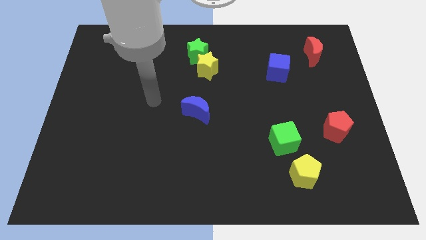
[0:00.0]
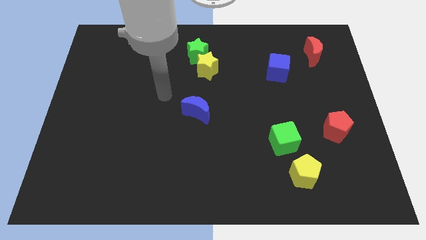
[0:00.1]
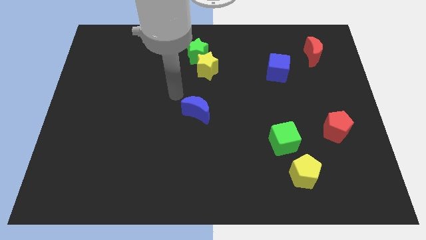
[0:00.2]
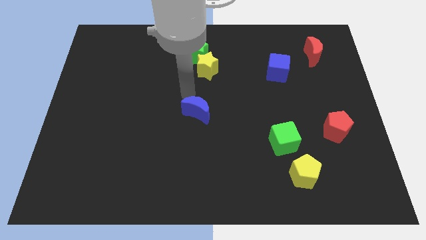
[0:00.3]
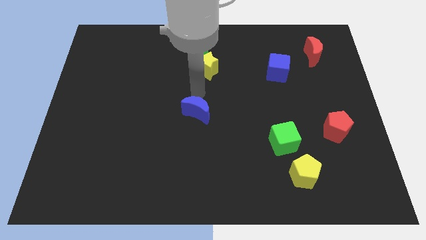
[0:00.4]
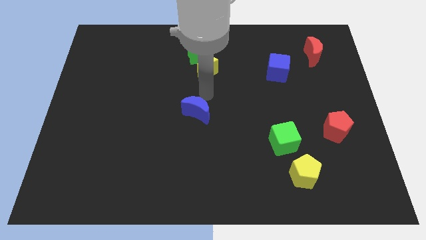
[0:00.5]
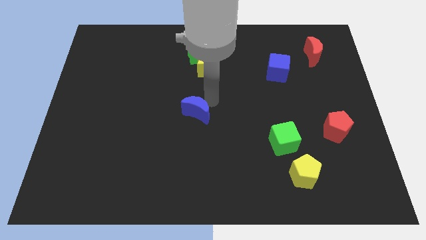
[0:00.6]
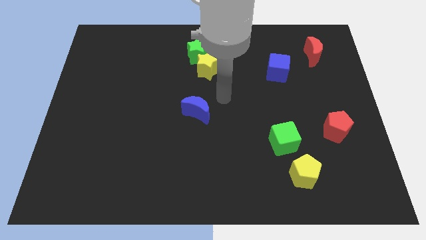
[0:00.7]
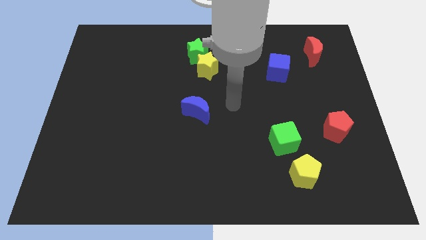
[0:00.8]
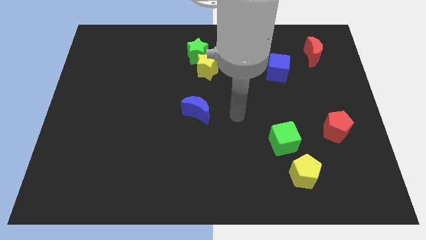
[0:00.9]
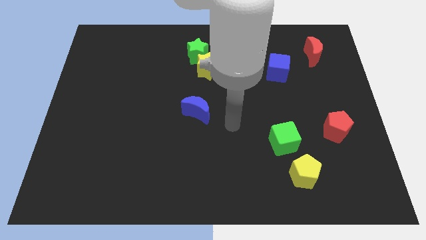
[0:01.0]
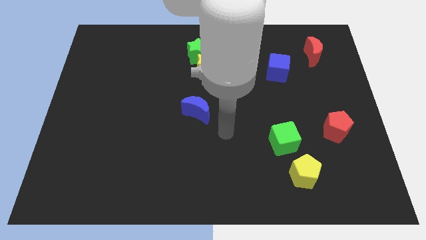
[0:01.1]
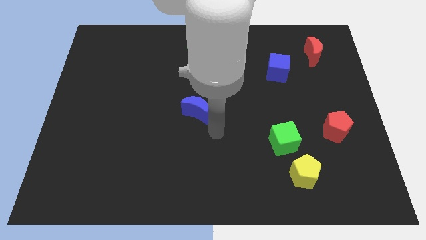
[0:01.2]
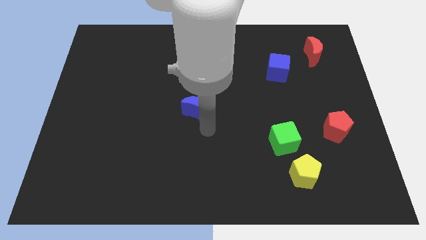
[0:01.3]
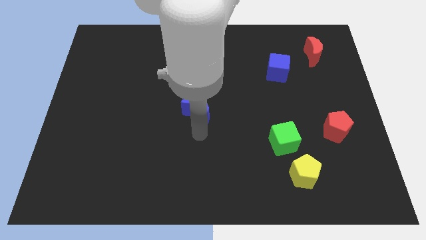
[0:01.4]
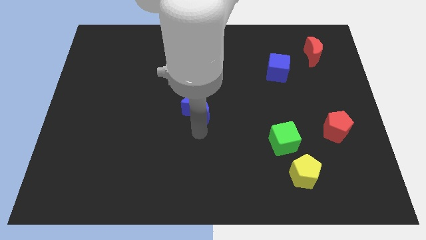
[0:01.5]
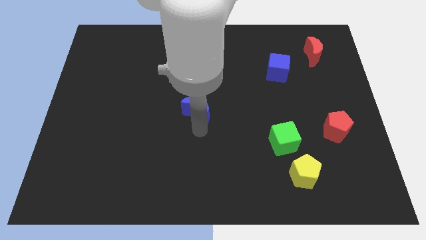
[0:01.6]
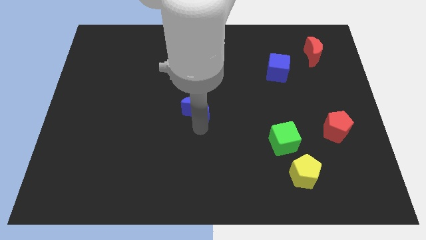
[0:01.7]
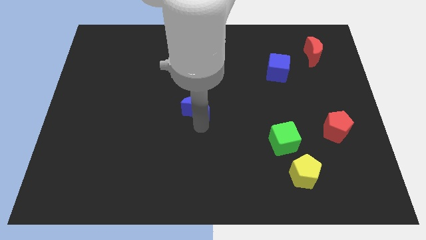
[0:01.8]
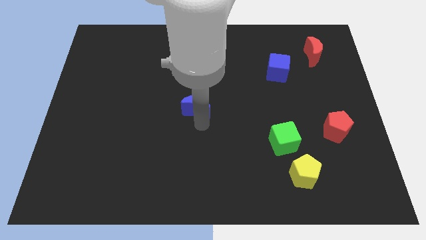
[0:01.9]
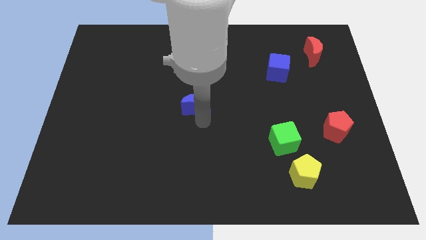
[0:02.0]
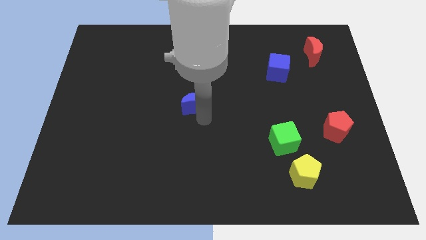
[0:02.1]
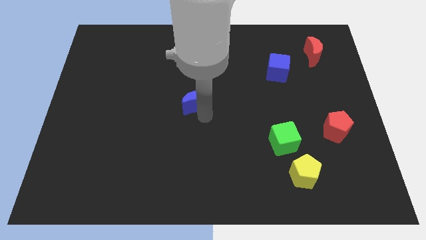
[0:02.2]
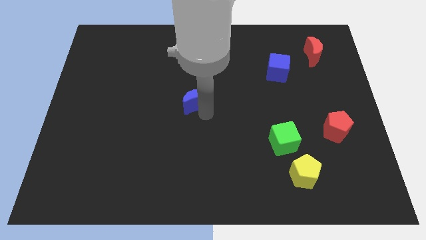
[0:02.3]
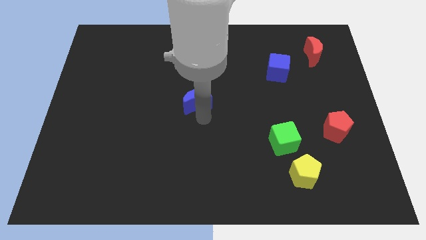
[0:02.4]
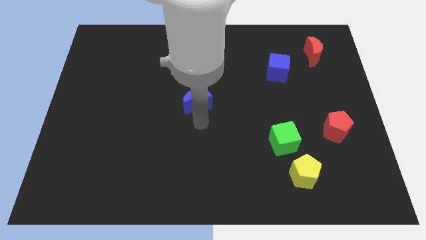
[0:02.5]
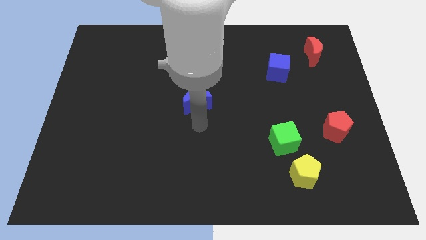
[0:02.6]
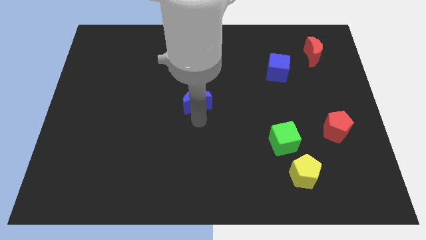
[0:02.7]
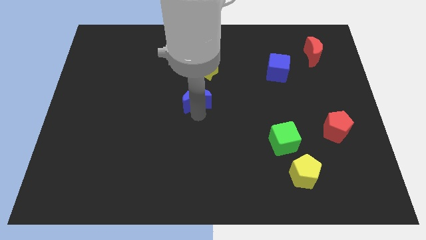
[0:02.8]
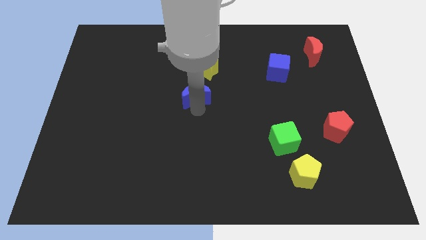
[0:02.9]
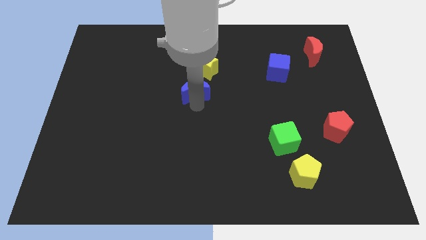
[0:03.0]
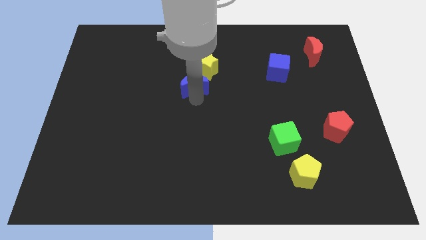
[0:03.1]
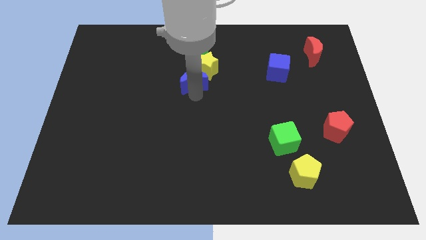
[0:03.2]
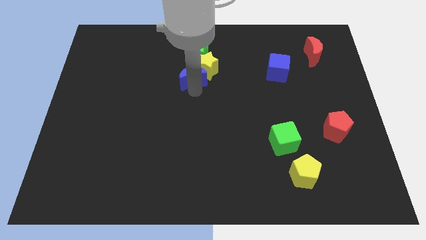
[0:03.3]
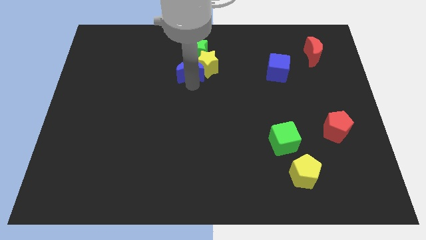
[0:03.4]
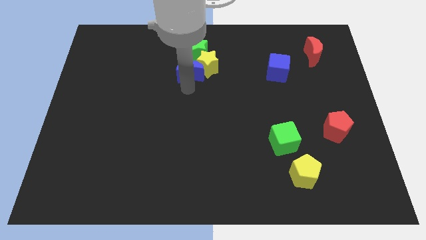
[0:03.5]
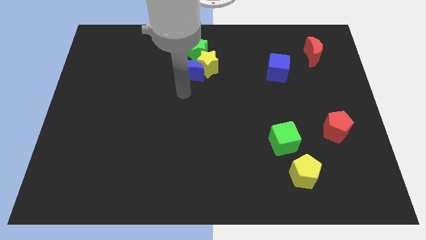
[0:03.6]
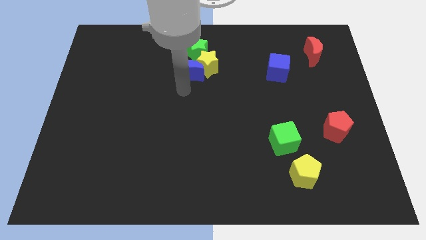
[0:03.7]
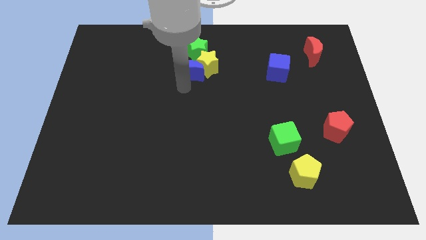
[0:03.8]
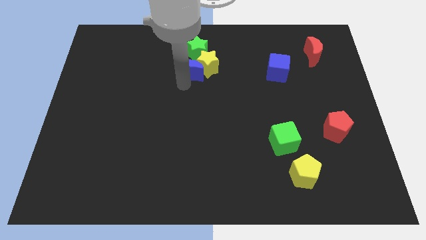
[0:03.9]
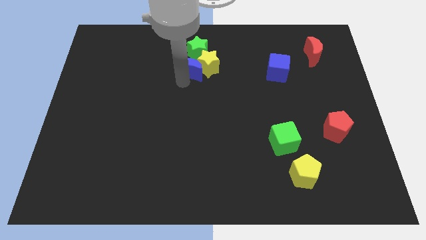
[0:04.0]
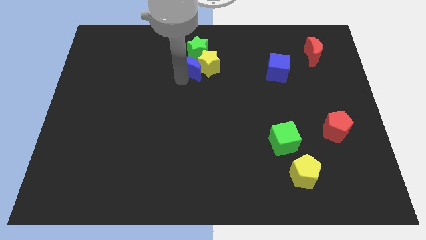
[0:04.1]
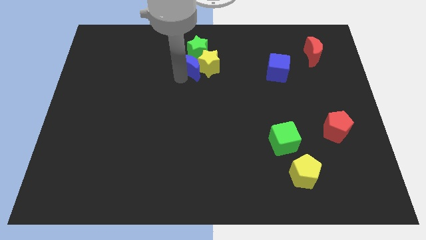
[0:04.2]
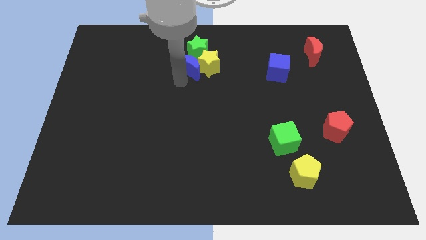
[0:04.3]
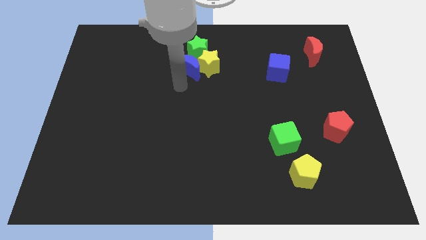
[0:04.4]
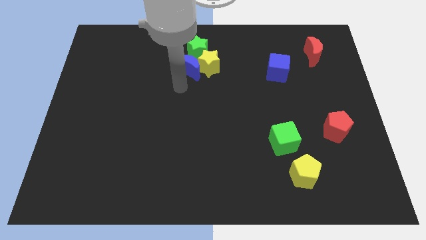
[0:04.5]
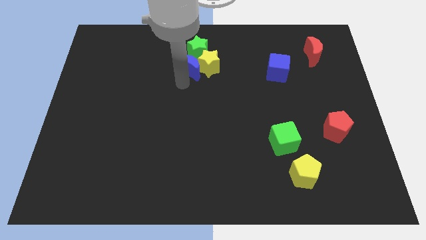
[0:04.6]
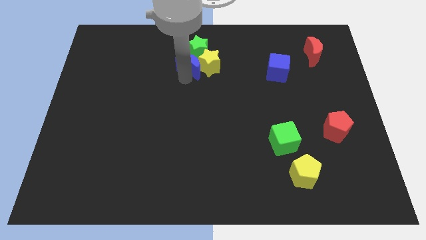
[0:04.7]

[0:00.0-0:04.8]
push the blue moon close to the green star

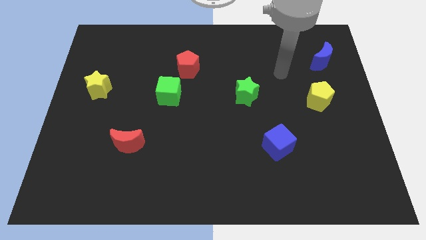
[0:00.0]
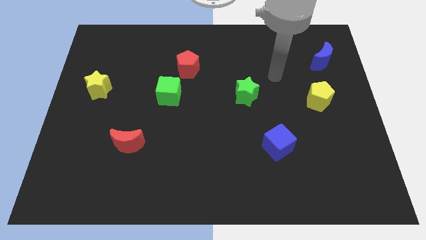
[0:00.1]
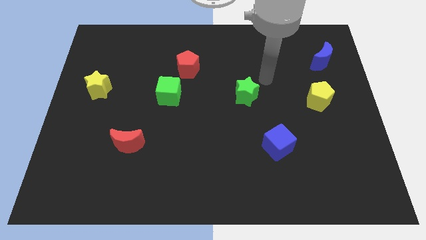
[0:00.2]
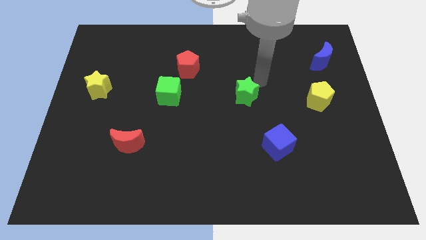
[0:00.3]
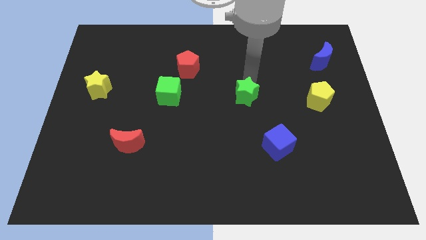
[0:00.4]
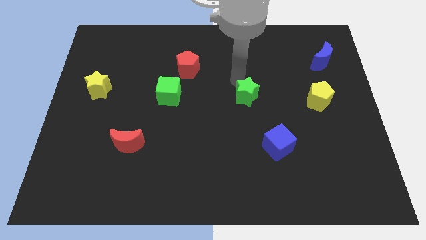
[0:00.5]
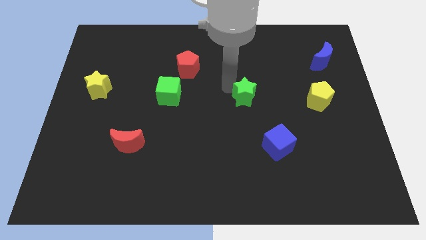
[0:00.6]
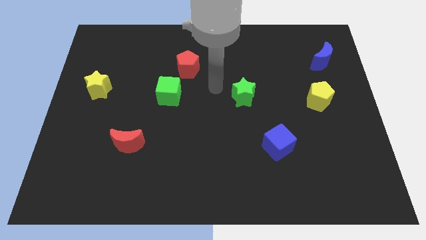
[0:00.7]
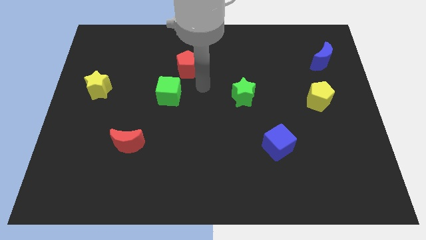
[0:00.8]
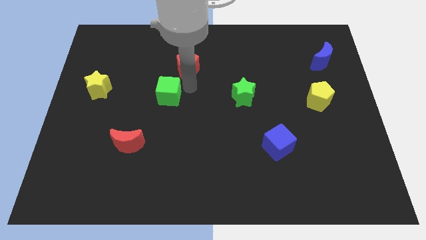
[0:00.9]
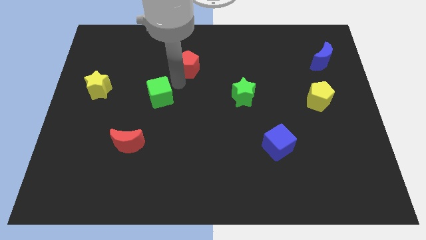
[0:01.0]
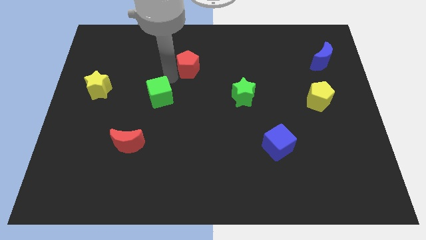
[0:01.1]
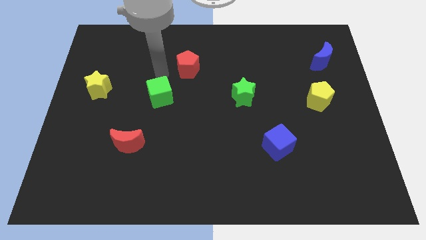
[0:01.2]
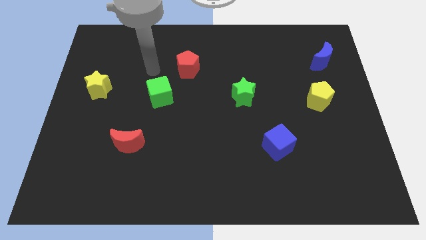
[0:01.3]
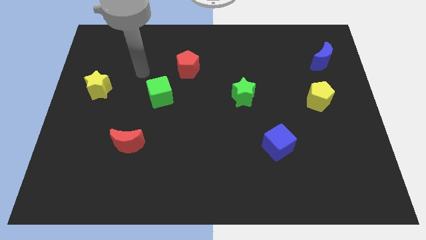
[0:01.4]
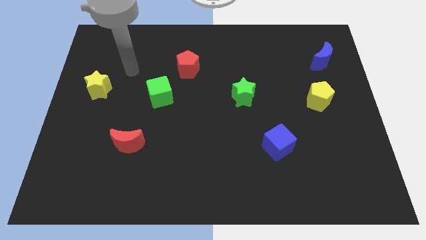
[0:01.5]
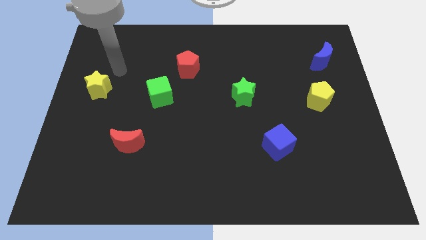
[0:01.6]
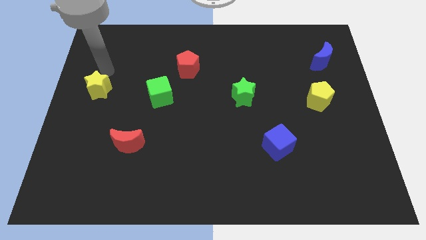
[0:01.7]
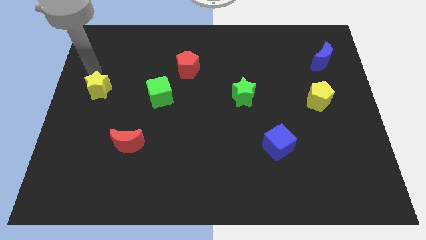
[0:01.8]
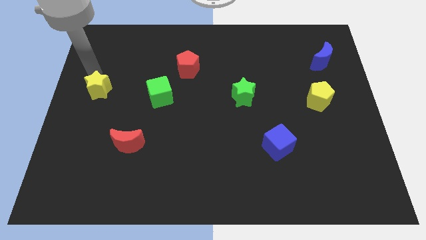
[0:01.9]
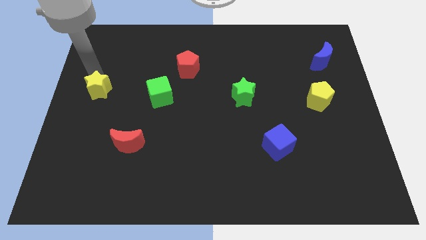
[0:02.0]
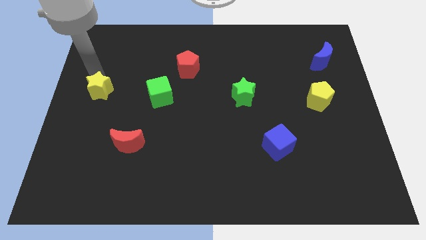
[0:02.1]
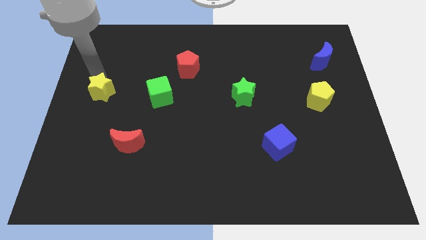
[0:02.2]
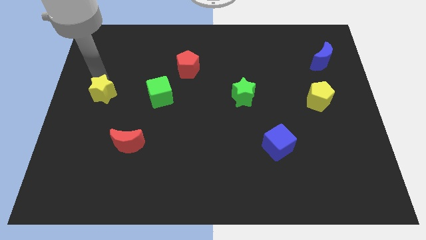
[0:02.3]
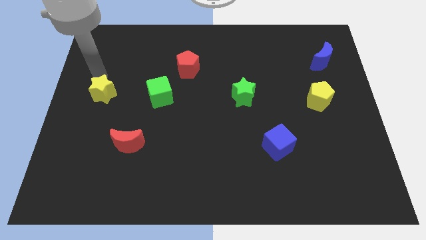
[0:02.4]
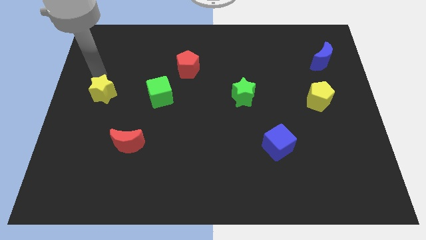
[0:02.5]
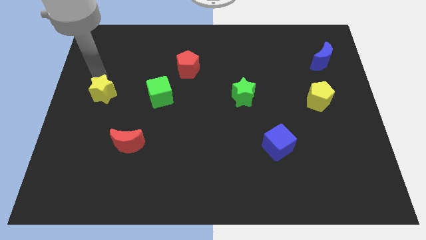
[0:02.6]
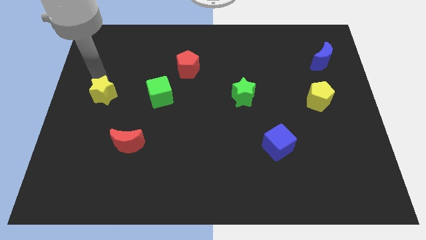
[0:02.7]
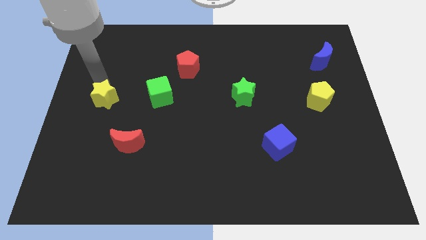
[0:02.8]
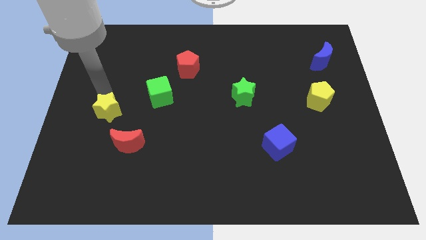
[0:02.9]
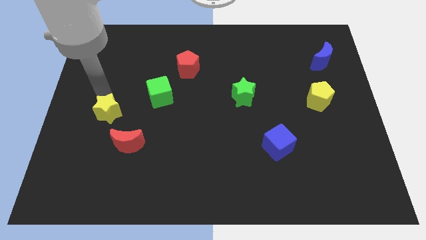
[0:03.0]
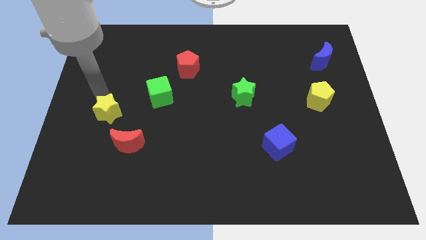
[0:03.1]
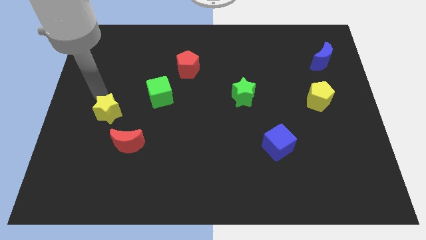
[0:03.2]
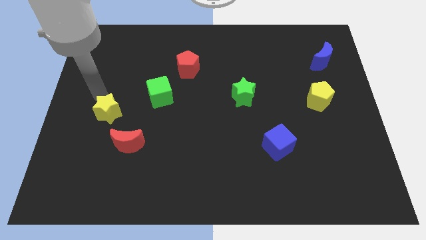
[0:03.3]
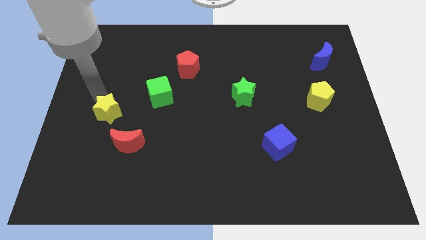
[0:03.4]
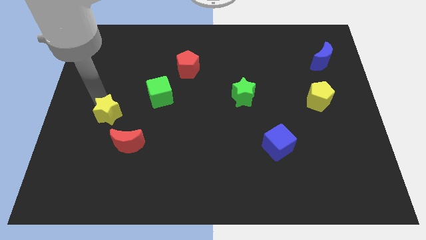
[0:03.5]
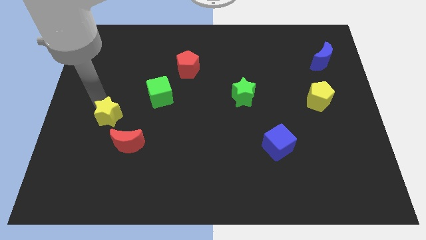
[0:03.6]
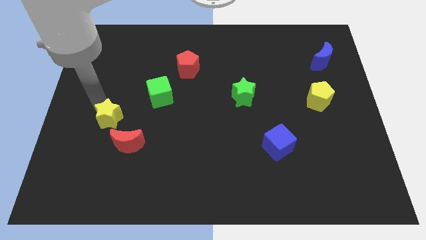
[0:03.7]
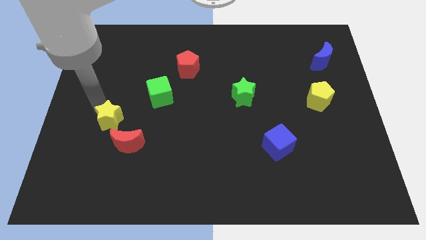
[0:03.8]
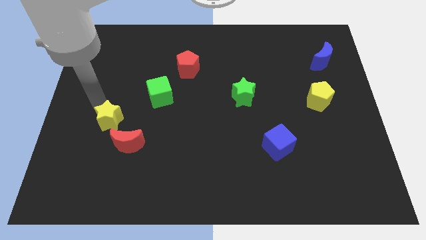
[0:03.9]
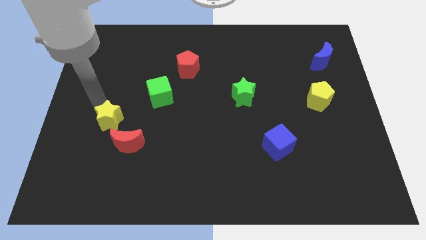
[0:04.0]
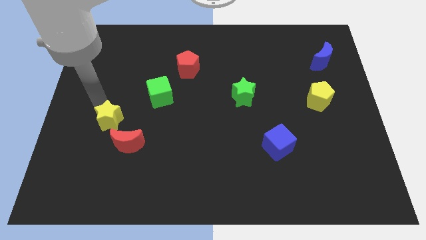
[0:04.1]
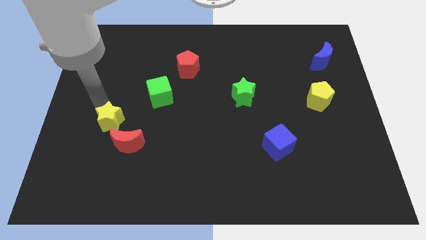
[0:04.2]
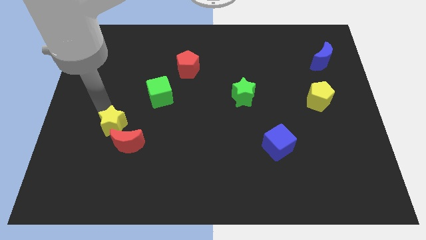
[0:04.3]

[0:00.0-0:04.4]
slide the yellow star close to the red moon
